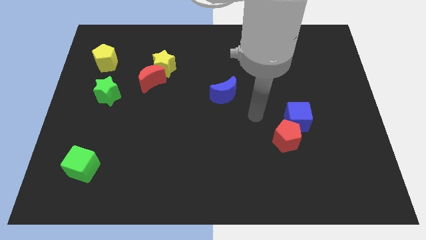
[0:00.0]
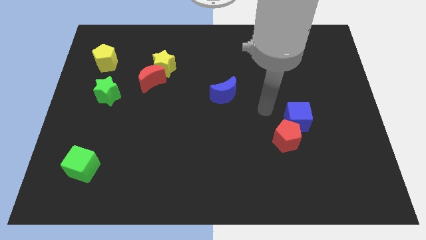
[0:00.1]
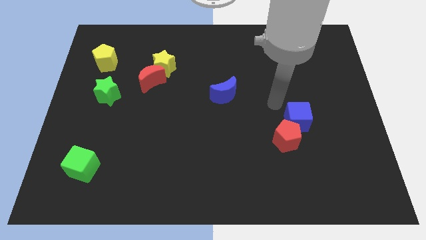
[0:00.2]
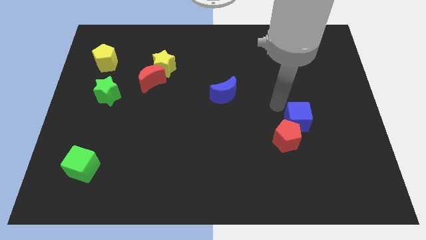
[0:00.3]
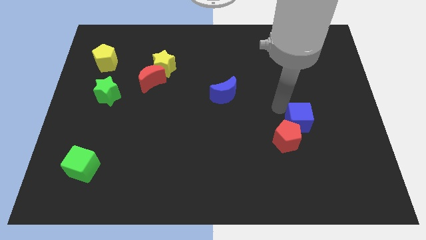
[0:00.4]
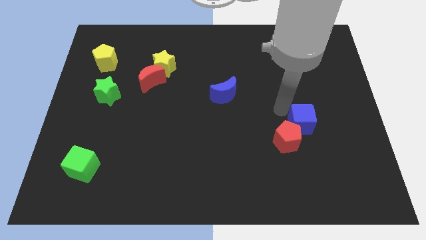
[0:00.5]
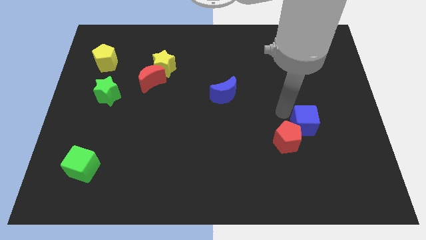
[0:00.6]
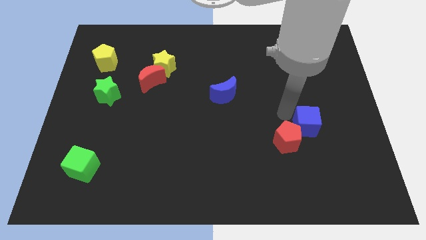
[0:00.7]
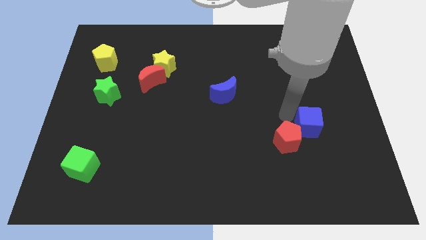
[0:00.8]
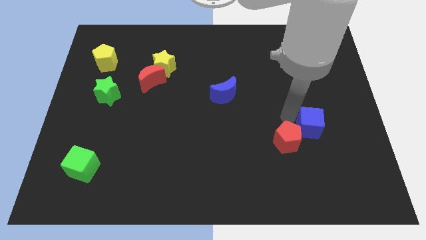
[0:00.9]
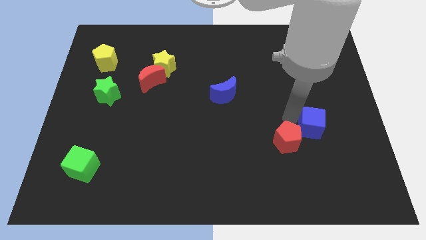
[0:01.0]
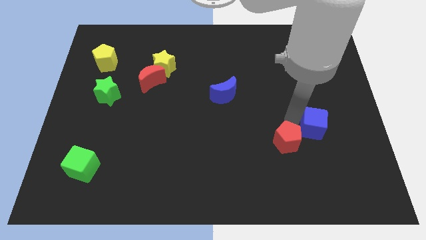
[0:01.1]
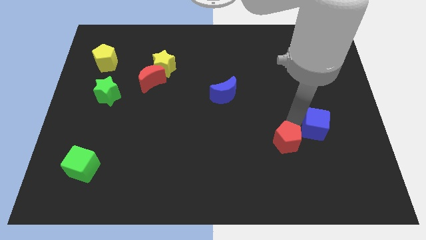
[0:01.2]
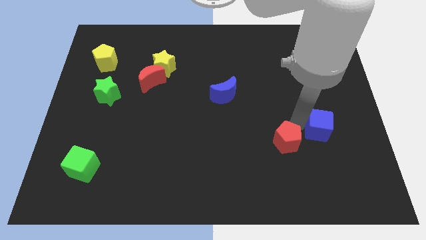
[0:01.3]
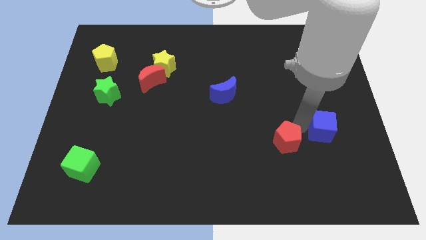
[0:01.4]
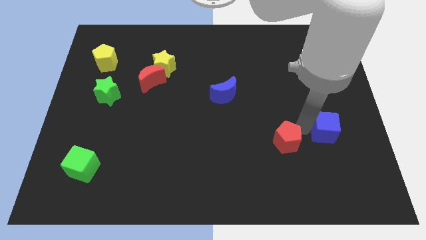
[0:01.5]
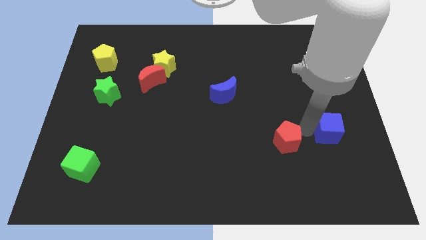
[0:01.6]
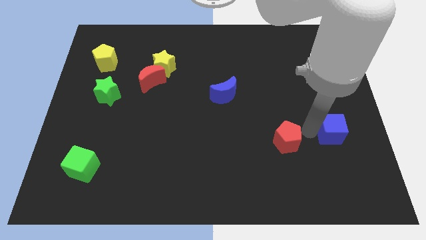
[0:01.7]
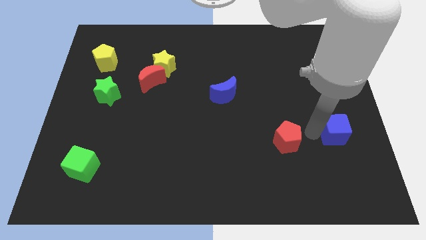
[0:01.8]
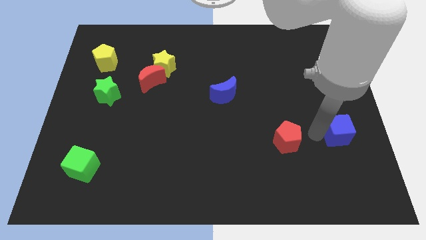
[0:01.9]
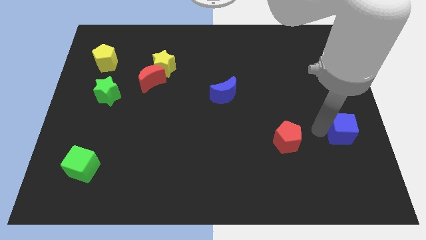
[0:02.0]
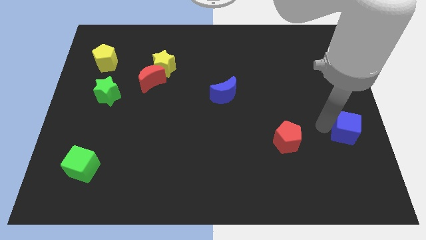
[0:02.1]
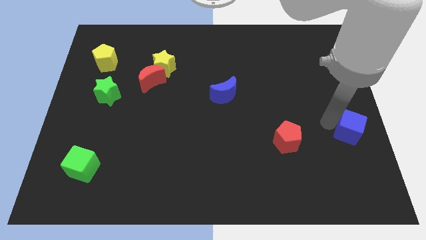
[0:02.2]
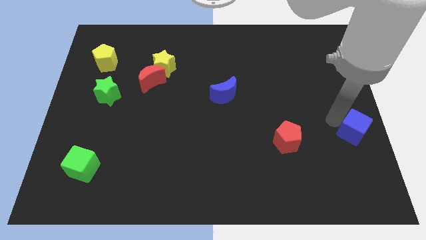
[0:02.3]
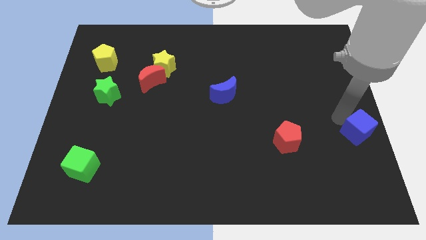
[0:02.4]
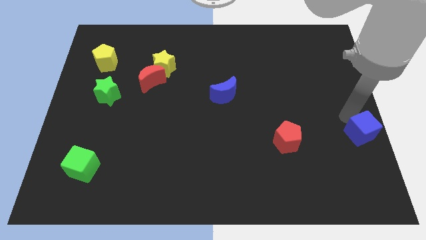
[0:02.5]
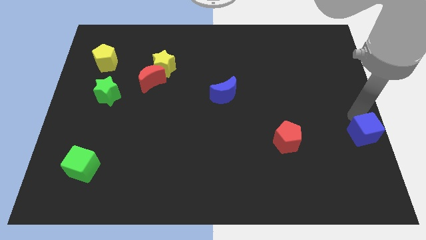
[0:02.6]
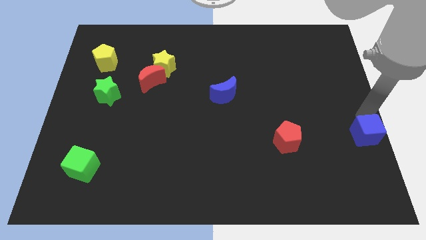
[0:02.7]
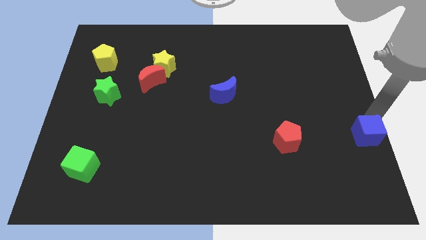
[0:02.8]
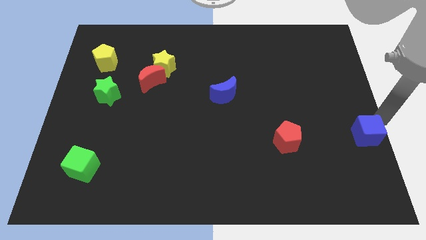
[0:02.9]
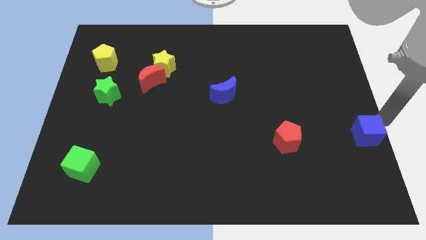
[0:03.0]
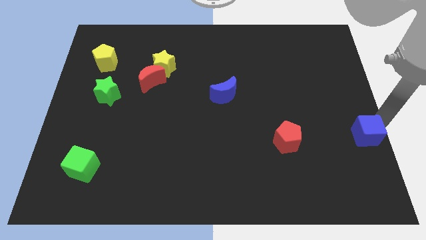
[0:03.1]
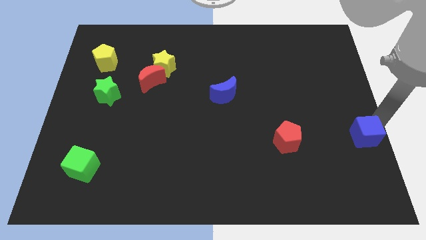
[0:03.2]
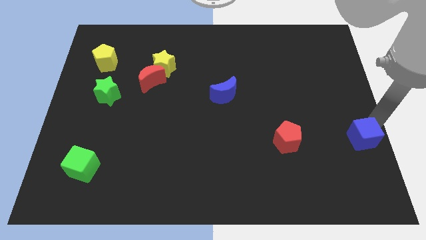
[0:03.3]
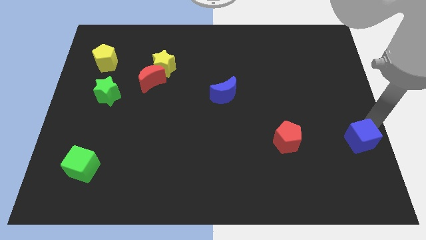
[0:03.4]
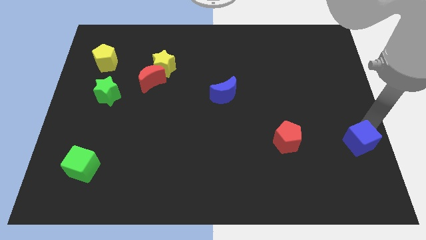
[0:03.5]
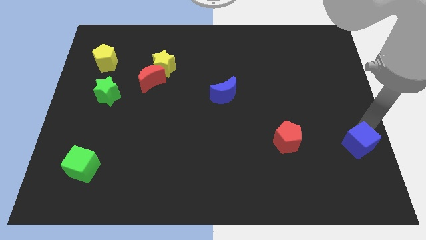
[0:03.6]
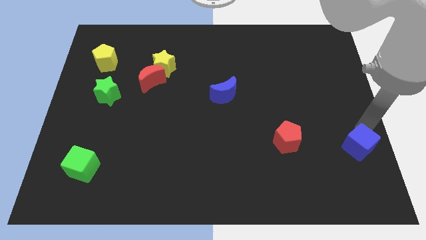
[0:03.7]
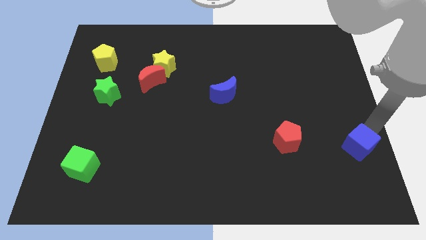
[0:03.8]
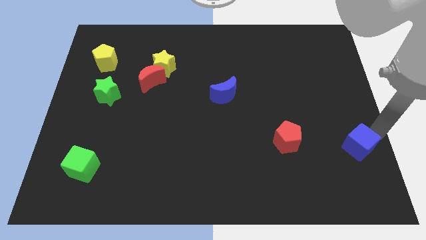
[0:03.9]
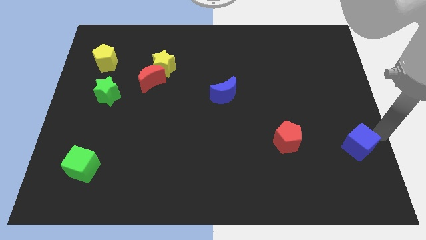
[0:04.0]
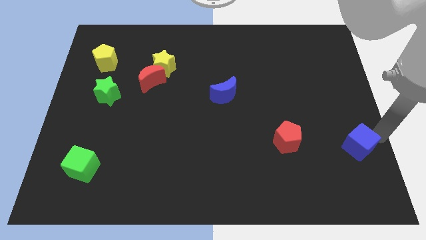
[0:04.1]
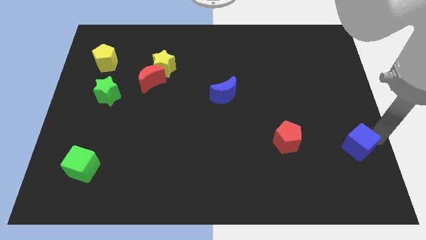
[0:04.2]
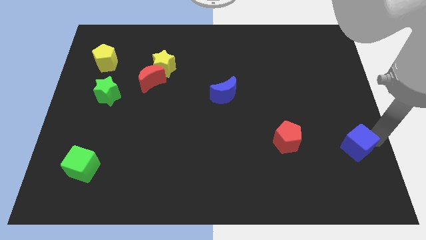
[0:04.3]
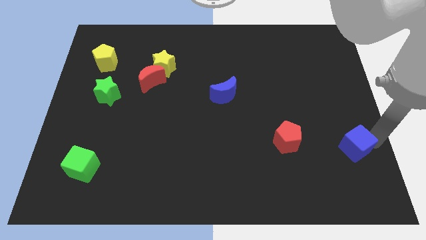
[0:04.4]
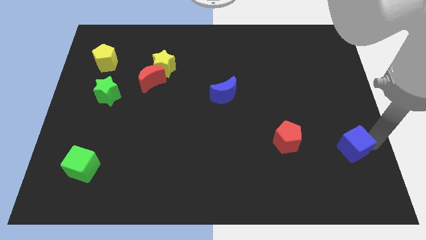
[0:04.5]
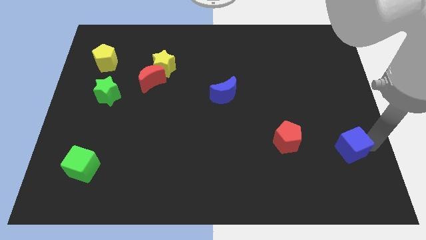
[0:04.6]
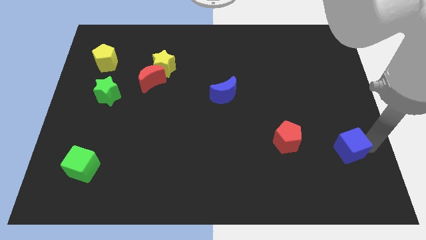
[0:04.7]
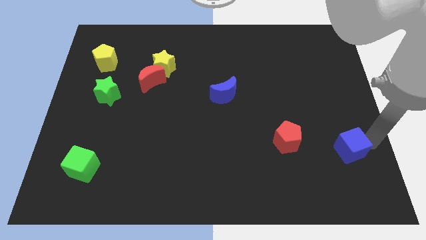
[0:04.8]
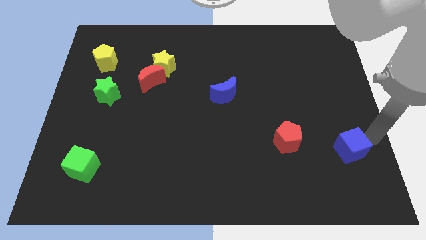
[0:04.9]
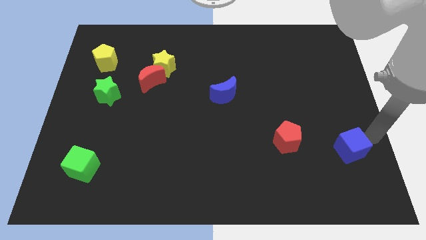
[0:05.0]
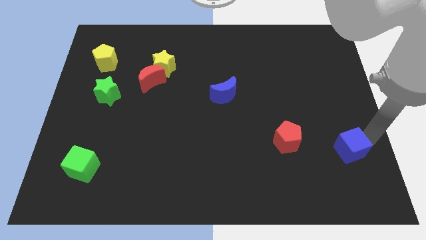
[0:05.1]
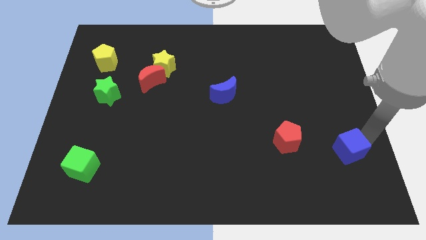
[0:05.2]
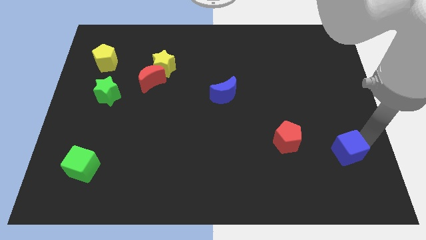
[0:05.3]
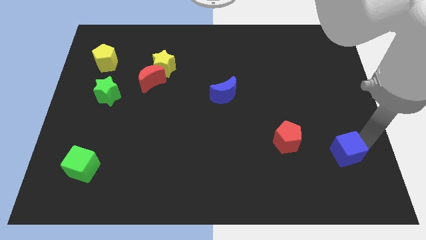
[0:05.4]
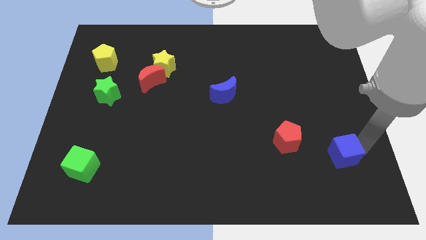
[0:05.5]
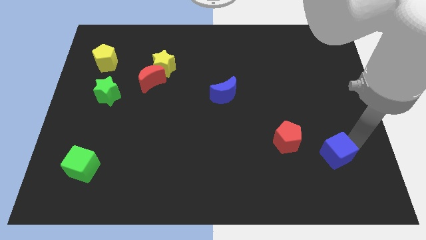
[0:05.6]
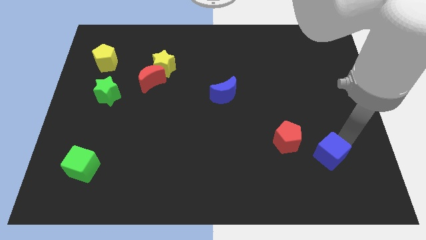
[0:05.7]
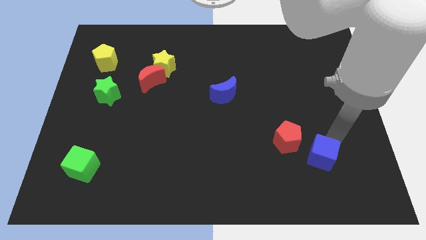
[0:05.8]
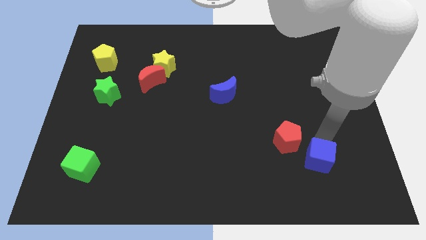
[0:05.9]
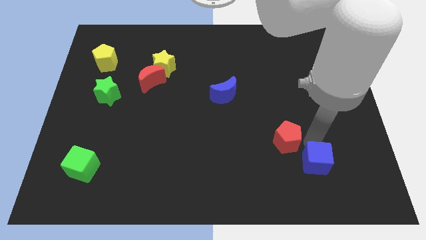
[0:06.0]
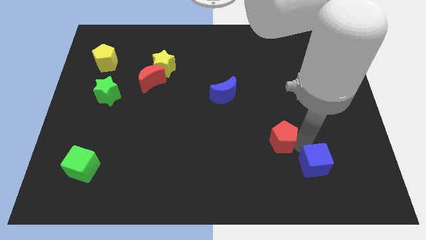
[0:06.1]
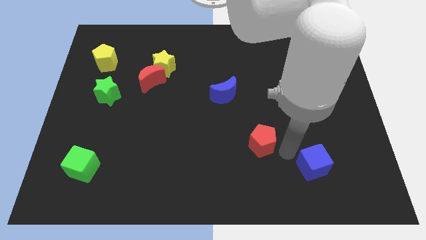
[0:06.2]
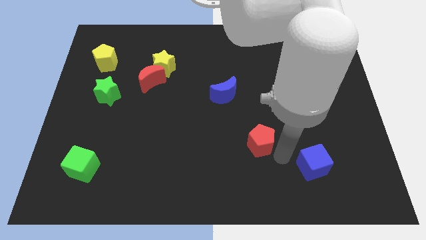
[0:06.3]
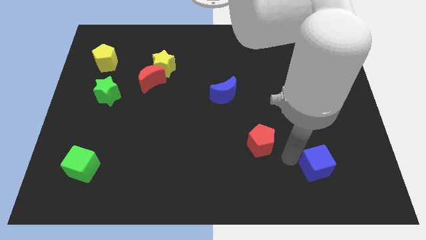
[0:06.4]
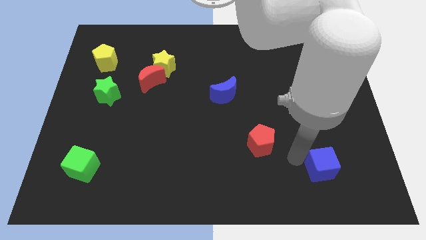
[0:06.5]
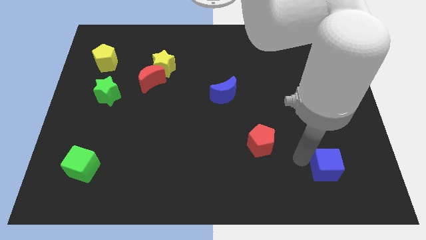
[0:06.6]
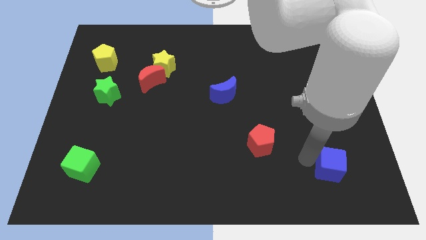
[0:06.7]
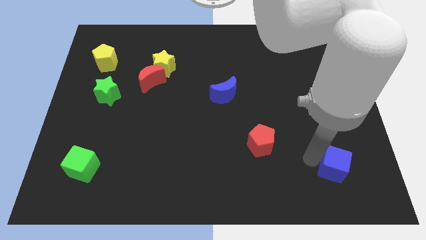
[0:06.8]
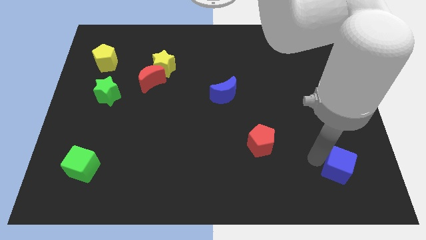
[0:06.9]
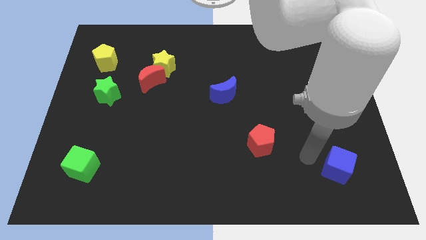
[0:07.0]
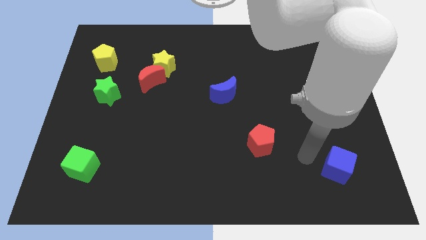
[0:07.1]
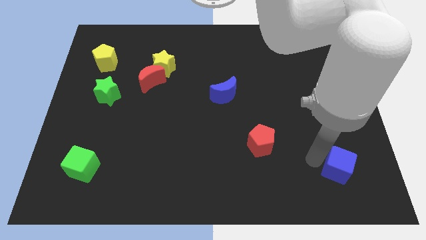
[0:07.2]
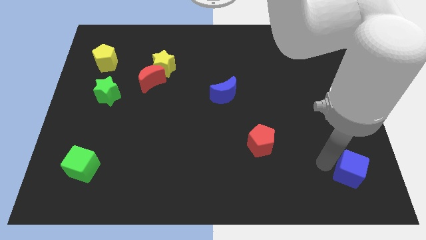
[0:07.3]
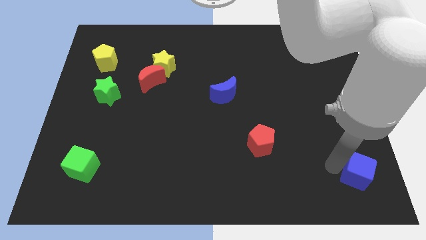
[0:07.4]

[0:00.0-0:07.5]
move the blue cube to the bottom right corner
